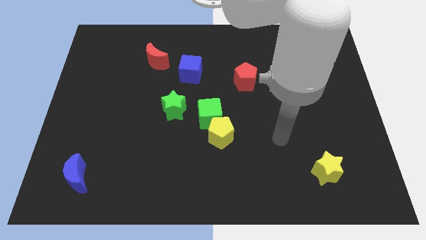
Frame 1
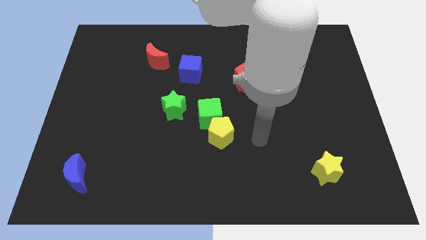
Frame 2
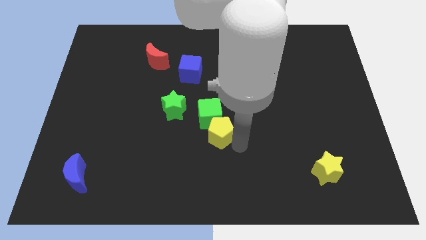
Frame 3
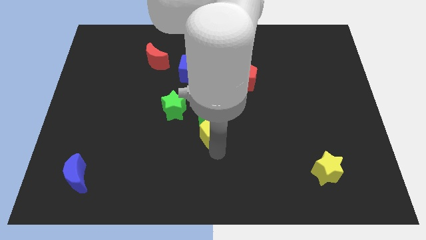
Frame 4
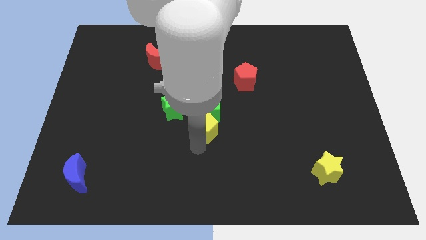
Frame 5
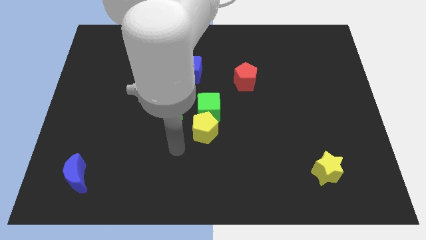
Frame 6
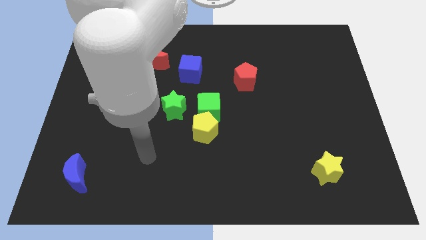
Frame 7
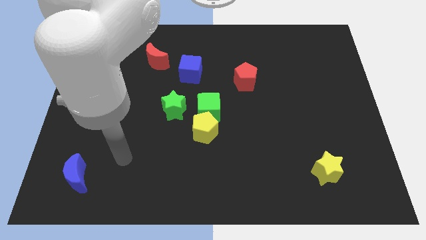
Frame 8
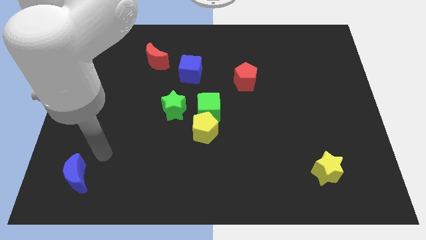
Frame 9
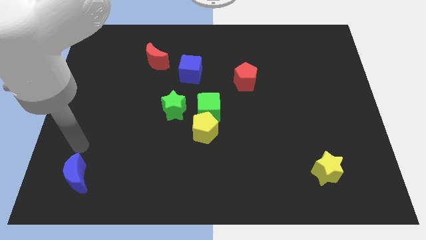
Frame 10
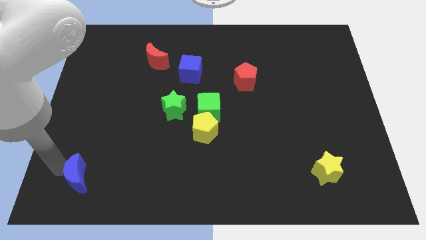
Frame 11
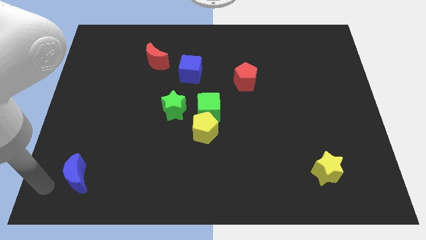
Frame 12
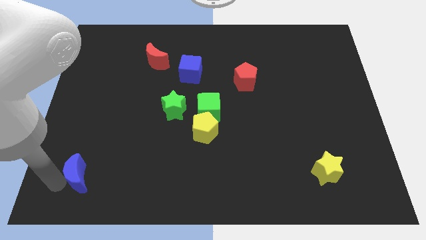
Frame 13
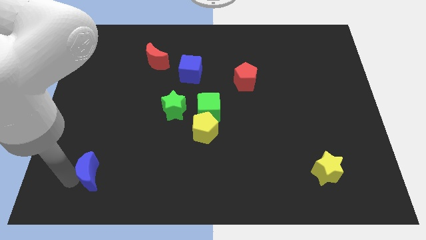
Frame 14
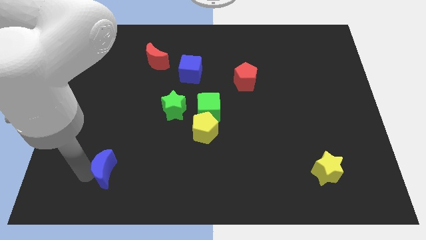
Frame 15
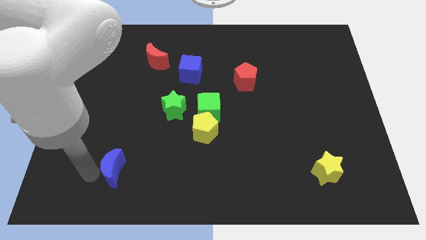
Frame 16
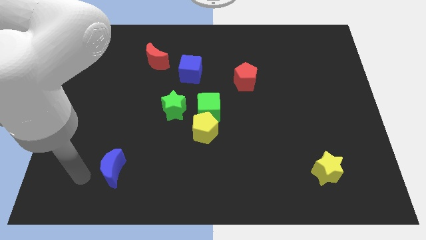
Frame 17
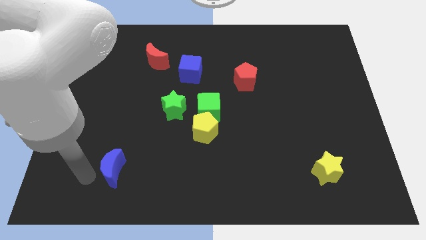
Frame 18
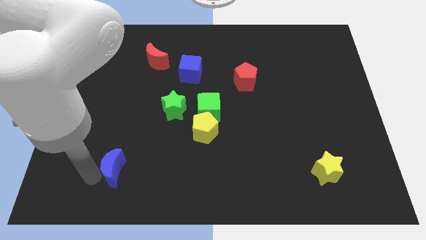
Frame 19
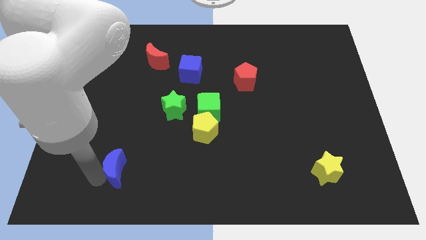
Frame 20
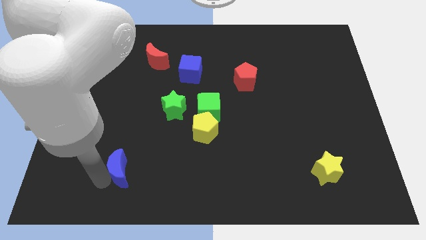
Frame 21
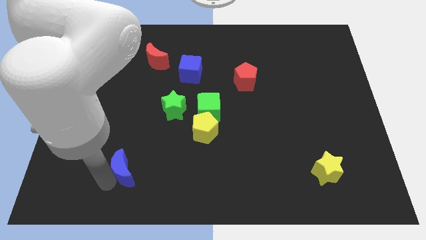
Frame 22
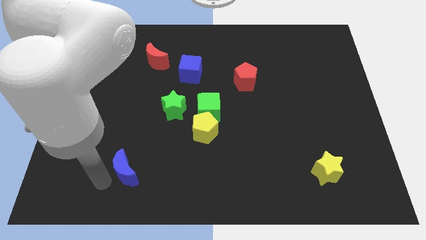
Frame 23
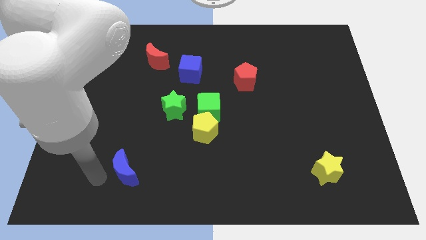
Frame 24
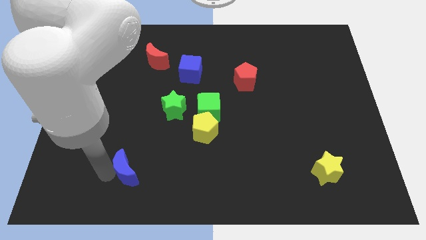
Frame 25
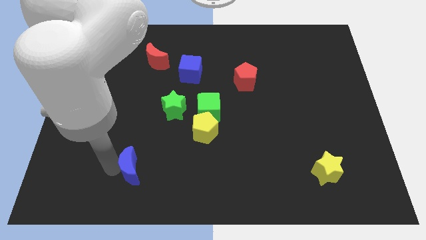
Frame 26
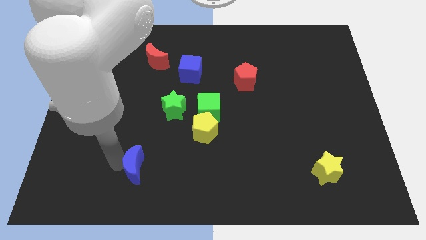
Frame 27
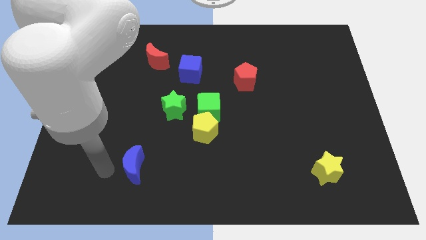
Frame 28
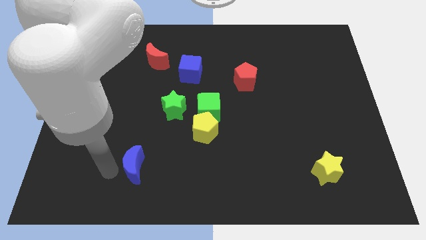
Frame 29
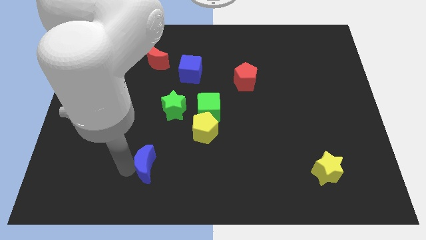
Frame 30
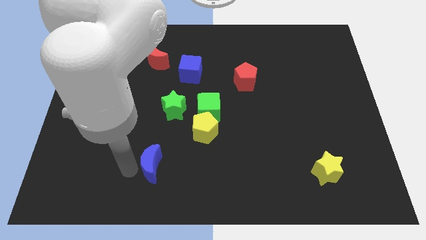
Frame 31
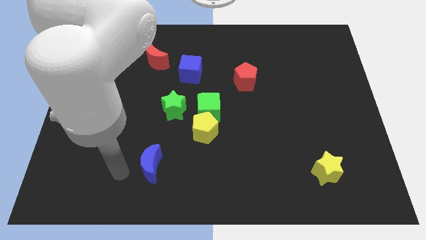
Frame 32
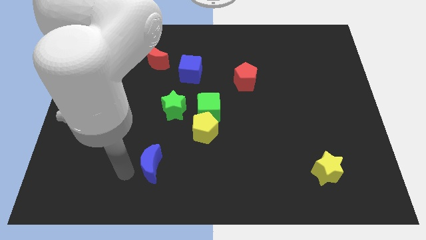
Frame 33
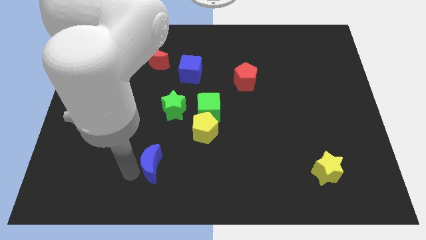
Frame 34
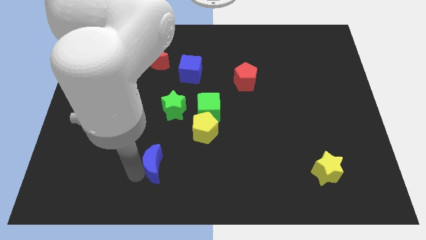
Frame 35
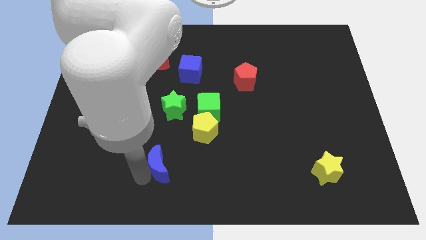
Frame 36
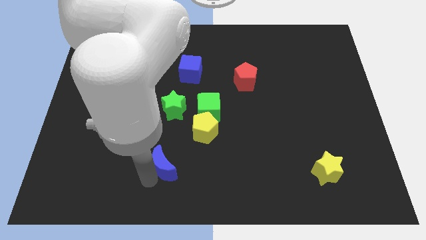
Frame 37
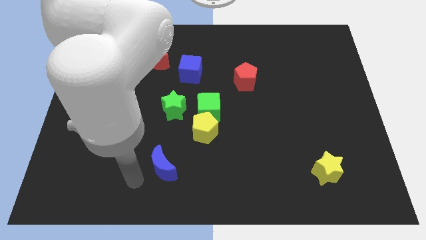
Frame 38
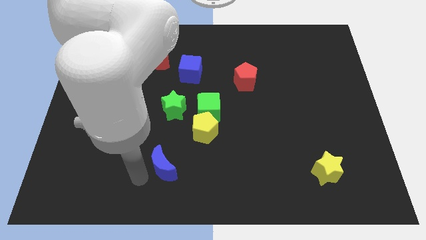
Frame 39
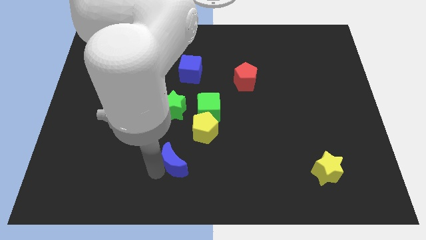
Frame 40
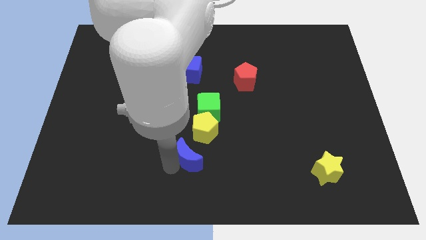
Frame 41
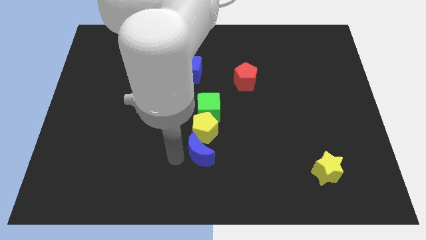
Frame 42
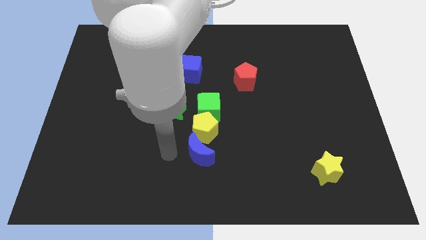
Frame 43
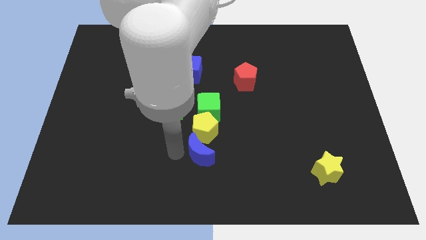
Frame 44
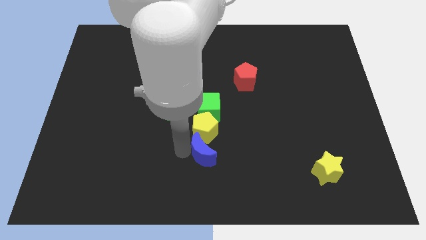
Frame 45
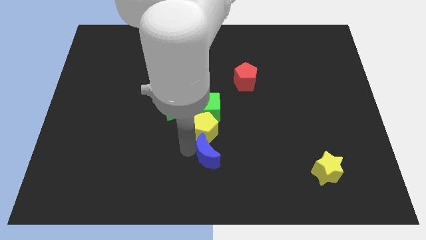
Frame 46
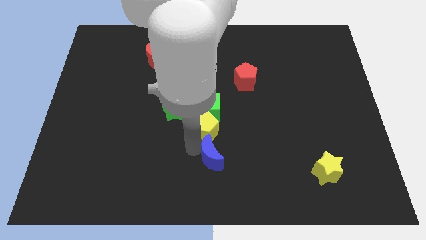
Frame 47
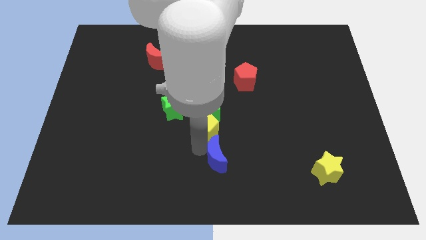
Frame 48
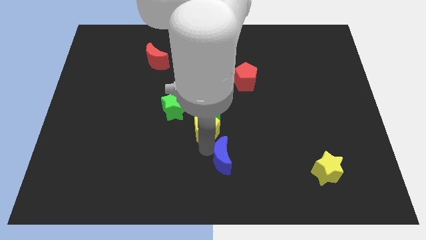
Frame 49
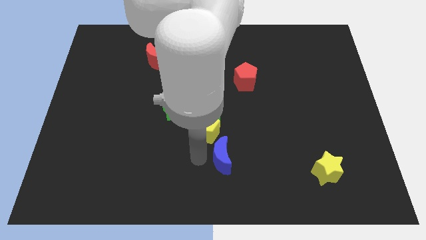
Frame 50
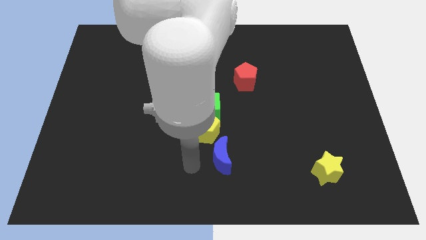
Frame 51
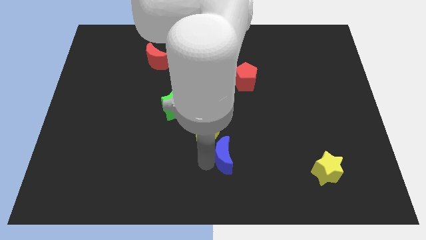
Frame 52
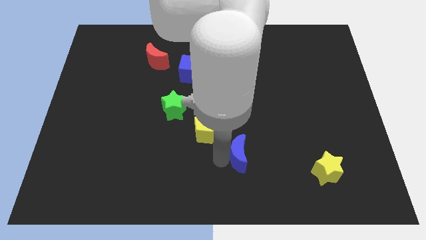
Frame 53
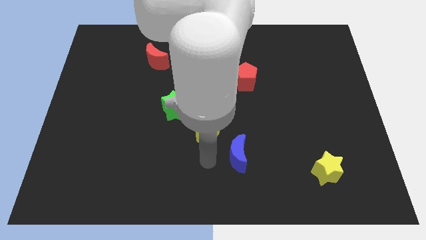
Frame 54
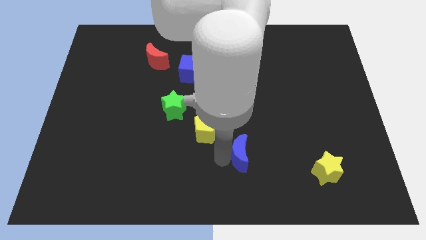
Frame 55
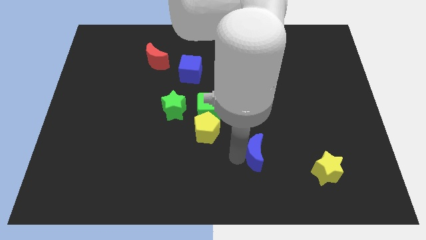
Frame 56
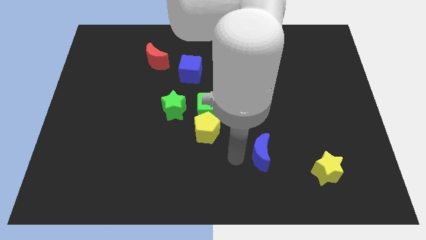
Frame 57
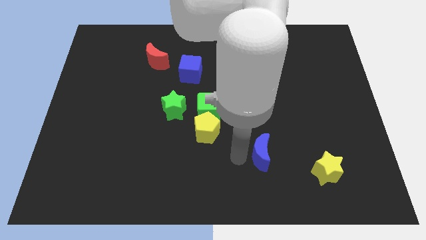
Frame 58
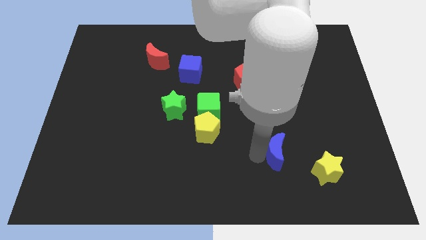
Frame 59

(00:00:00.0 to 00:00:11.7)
move the blue moon diagonally up and to the left of the yellow star
